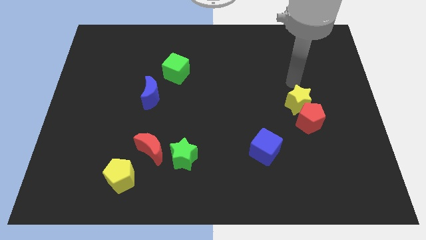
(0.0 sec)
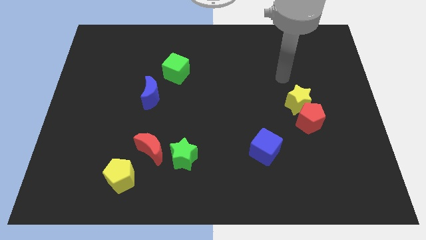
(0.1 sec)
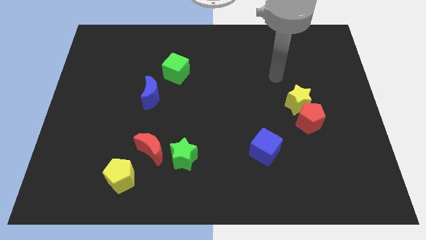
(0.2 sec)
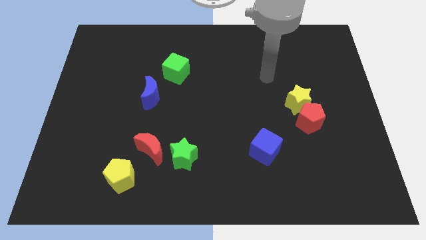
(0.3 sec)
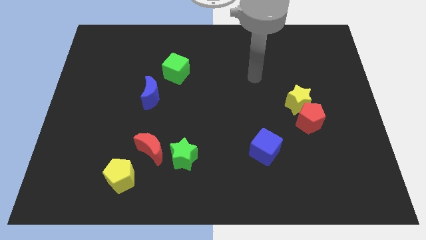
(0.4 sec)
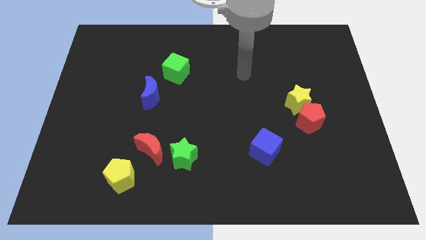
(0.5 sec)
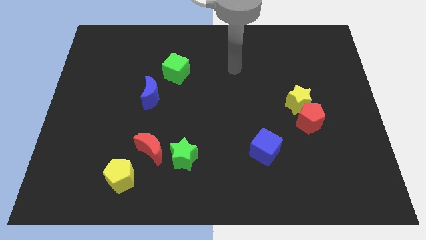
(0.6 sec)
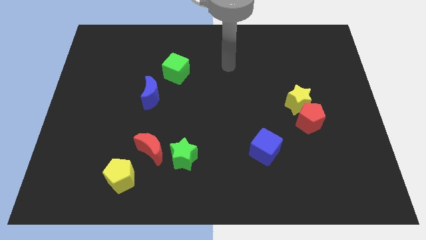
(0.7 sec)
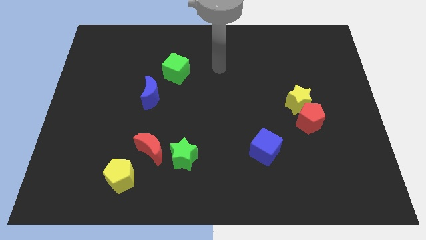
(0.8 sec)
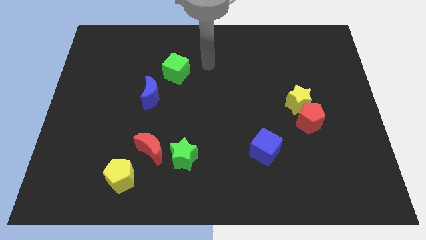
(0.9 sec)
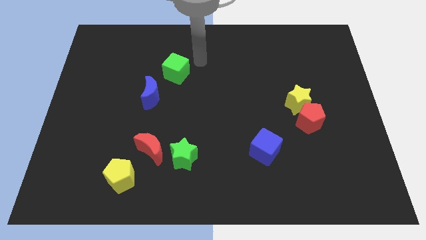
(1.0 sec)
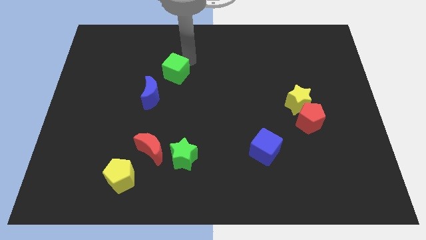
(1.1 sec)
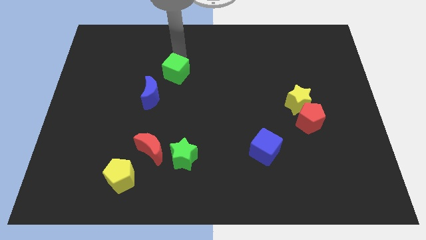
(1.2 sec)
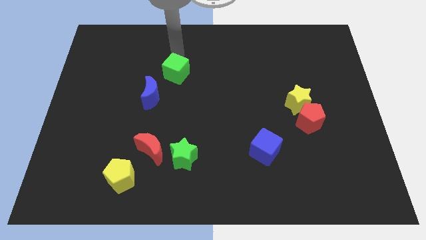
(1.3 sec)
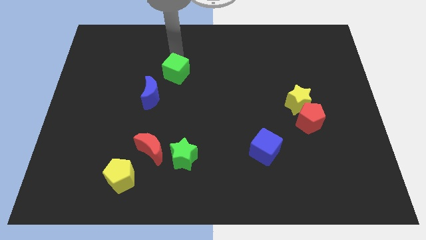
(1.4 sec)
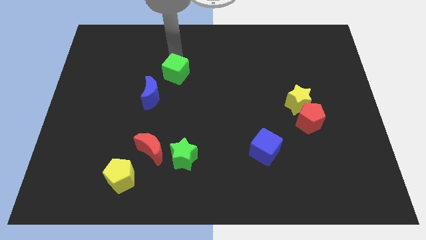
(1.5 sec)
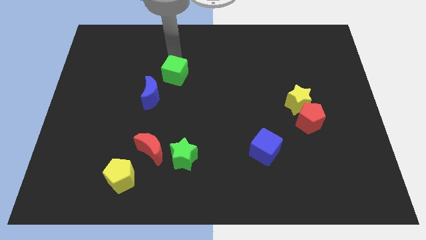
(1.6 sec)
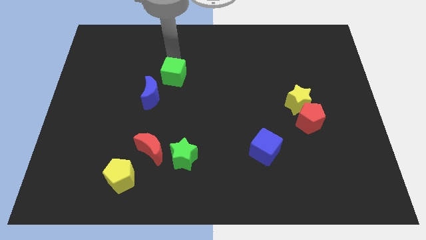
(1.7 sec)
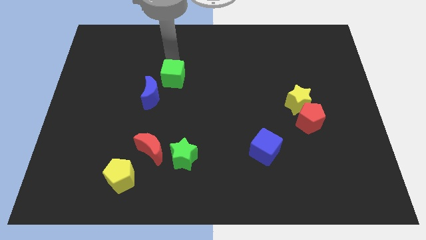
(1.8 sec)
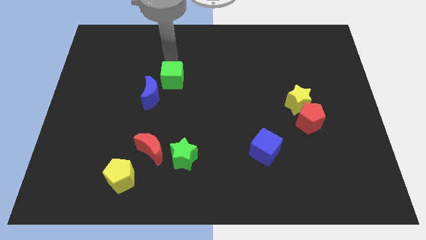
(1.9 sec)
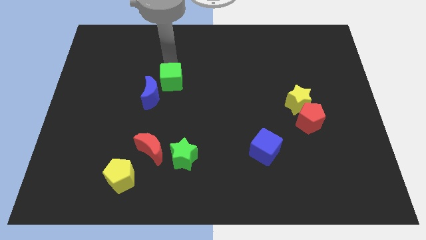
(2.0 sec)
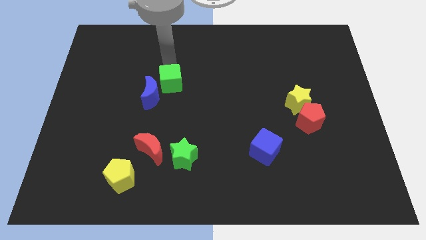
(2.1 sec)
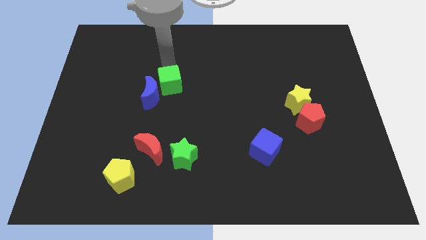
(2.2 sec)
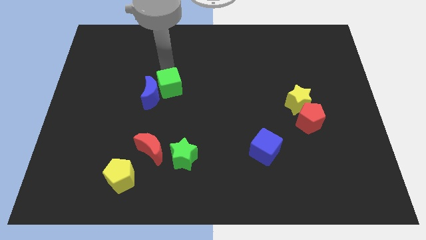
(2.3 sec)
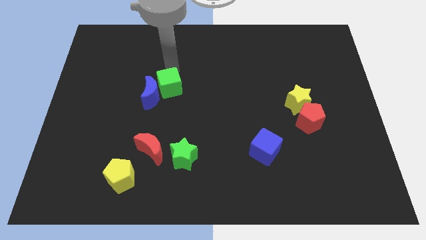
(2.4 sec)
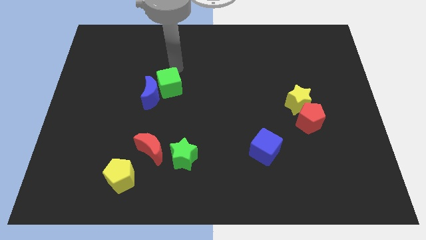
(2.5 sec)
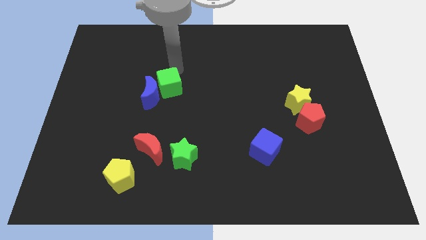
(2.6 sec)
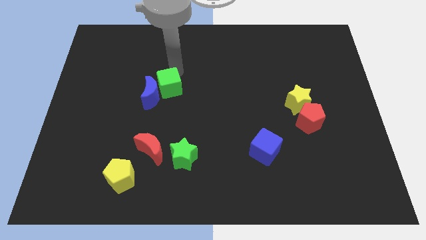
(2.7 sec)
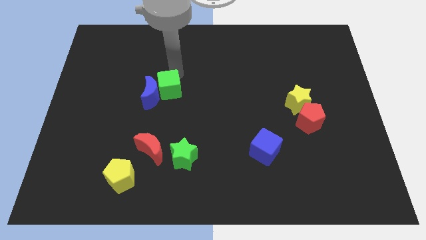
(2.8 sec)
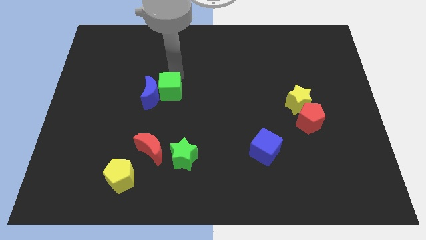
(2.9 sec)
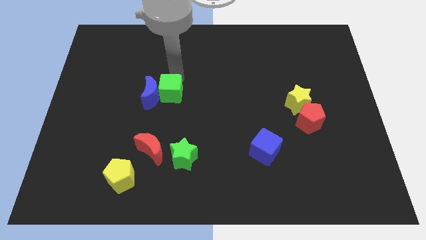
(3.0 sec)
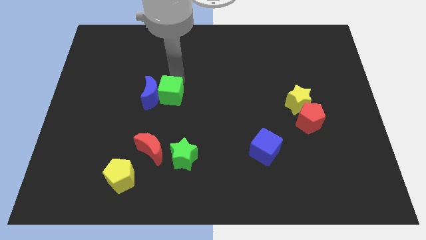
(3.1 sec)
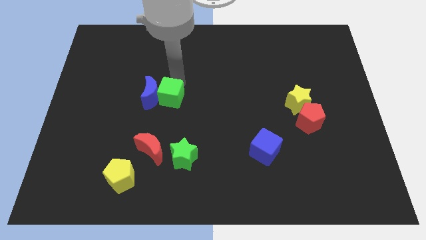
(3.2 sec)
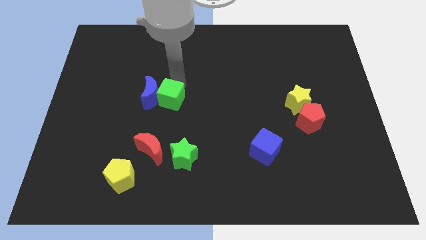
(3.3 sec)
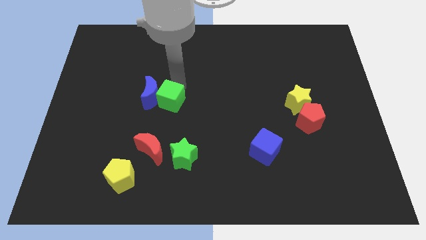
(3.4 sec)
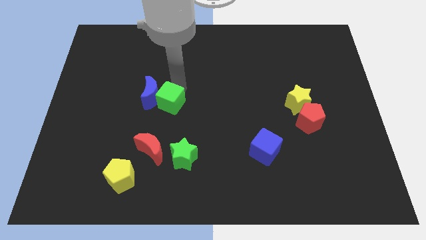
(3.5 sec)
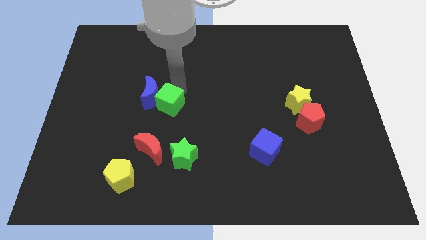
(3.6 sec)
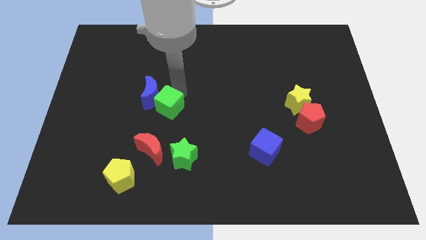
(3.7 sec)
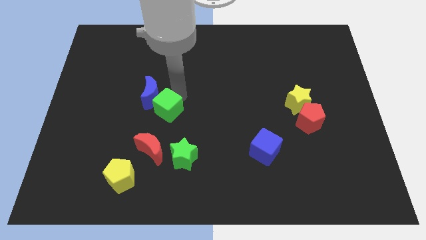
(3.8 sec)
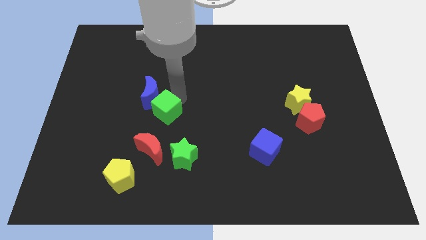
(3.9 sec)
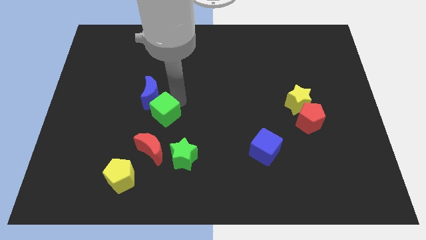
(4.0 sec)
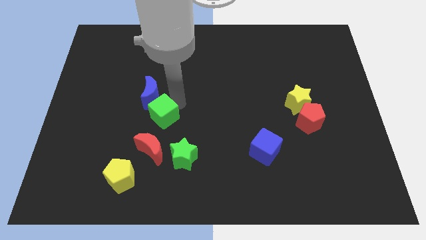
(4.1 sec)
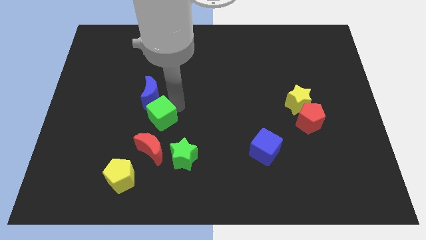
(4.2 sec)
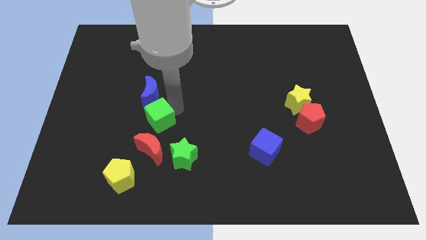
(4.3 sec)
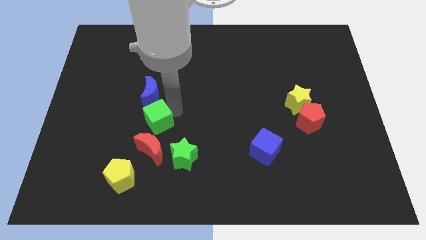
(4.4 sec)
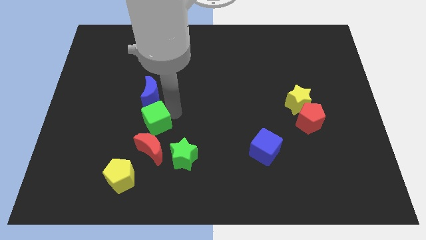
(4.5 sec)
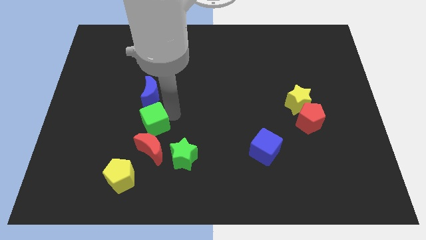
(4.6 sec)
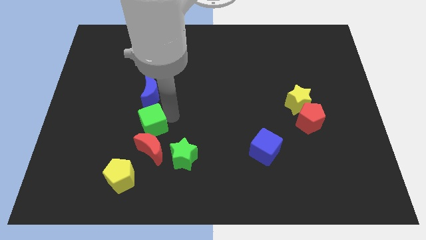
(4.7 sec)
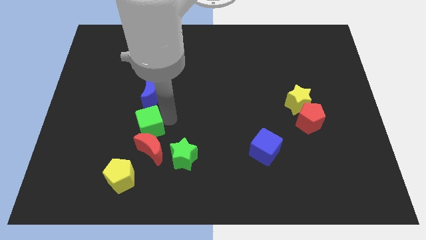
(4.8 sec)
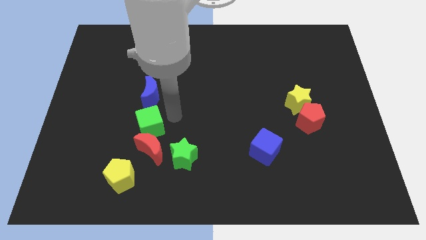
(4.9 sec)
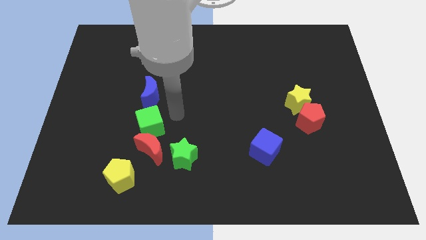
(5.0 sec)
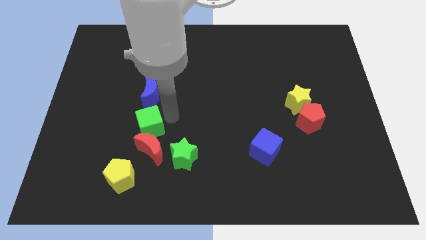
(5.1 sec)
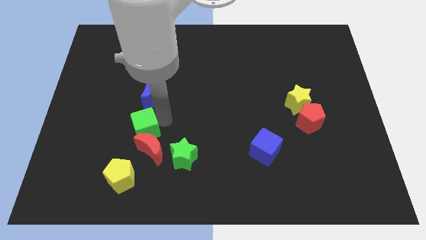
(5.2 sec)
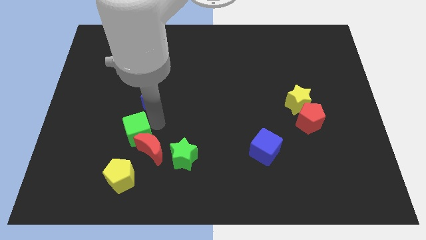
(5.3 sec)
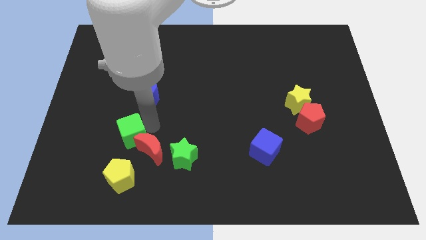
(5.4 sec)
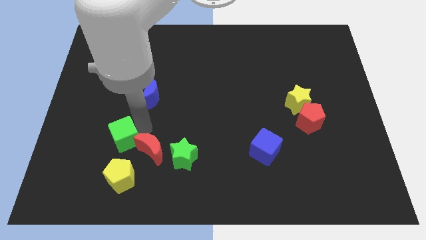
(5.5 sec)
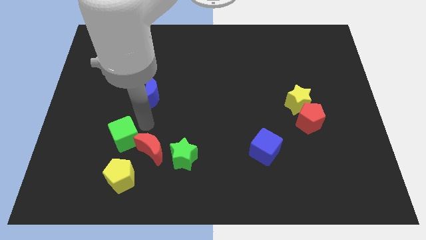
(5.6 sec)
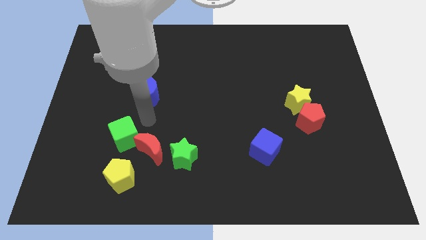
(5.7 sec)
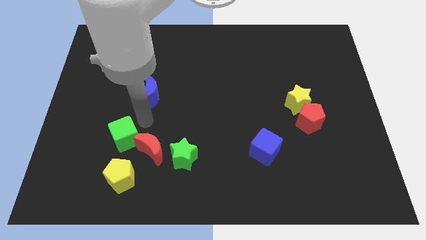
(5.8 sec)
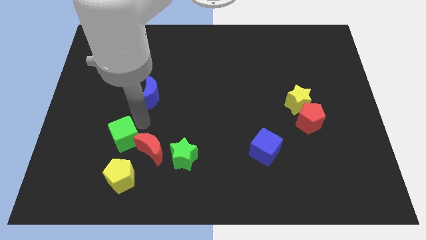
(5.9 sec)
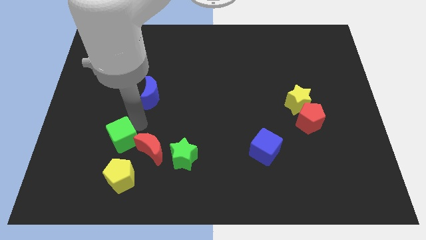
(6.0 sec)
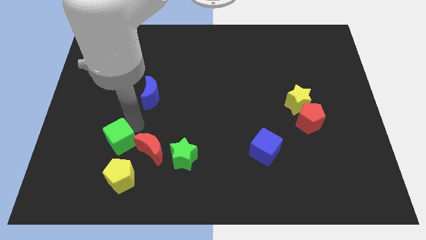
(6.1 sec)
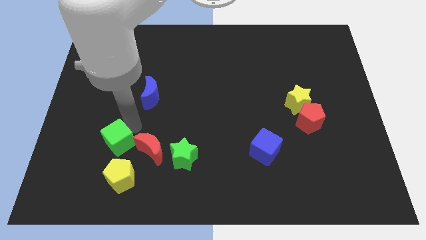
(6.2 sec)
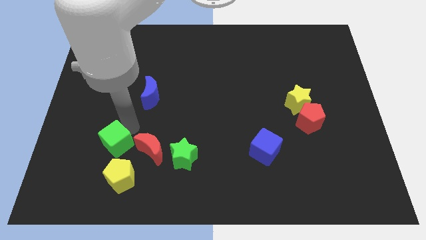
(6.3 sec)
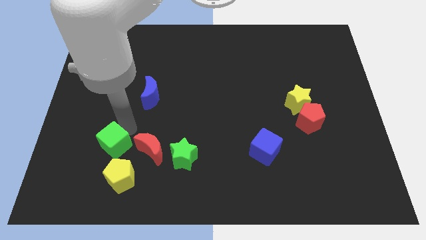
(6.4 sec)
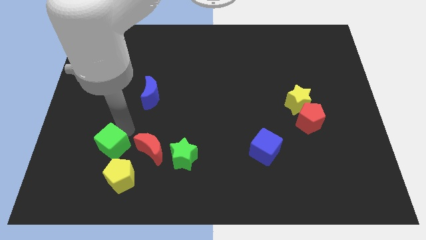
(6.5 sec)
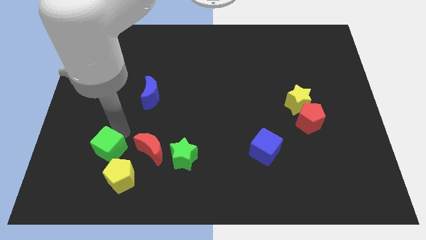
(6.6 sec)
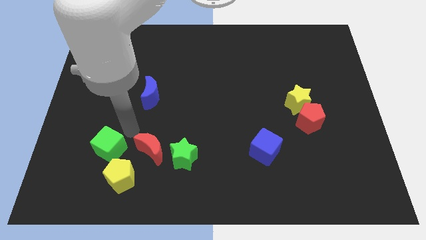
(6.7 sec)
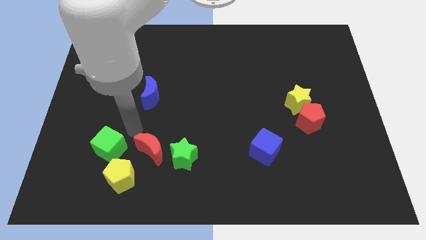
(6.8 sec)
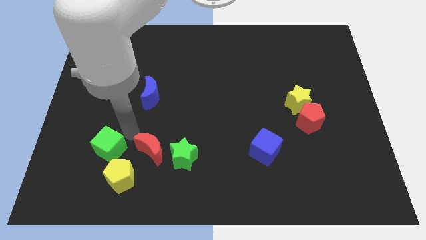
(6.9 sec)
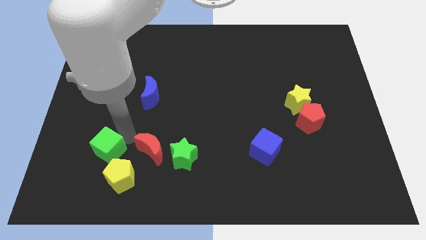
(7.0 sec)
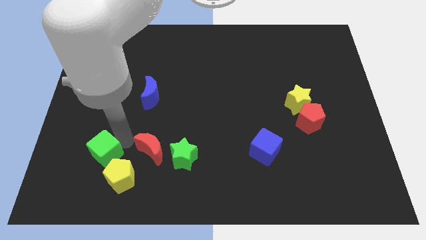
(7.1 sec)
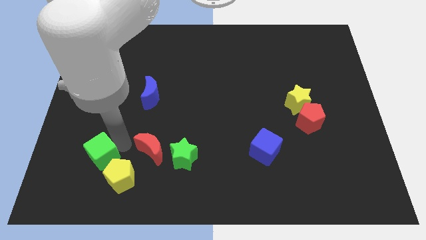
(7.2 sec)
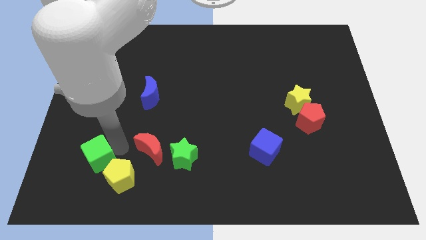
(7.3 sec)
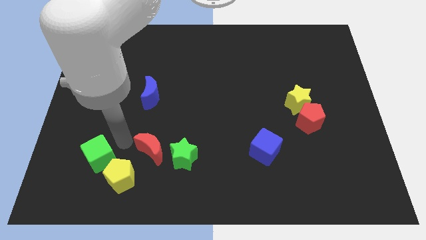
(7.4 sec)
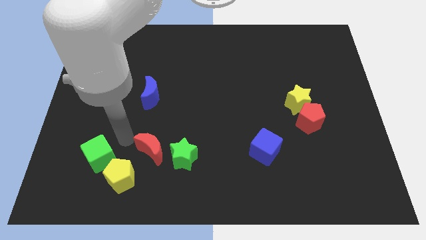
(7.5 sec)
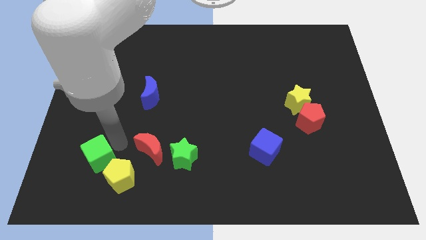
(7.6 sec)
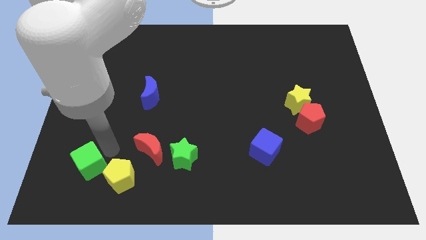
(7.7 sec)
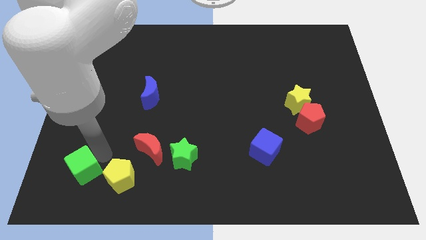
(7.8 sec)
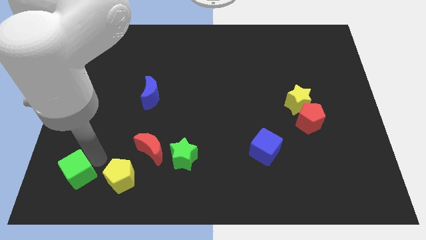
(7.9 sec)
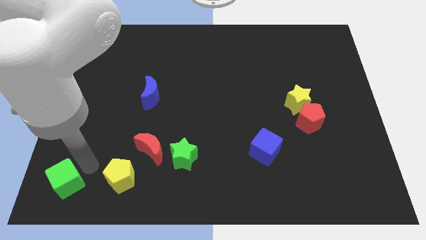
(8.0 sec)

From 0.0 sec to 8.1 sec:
move the green cube to the bottom left corner
